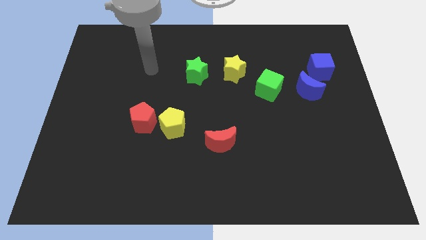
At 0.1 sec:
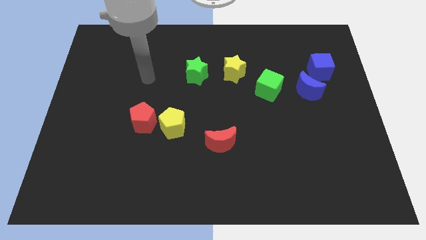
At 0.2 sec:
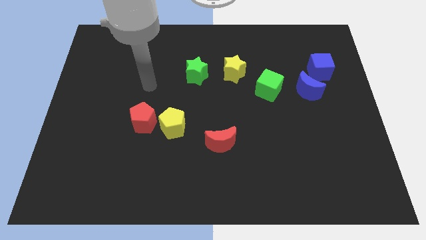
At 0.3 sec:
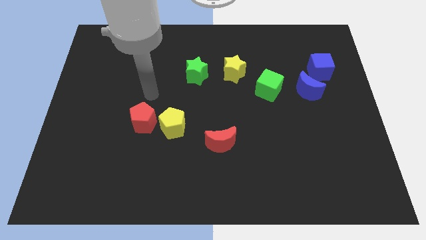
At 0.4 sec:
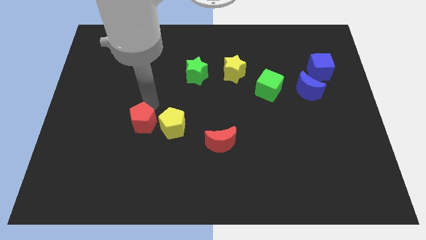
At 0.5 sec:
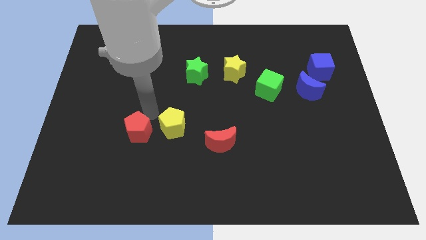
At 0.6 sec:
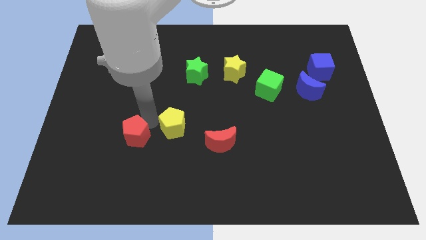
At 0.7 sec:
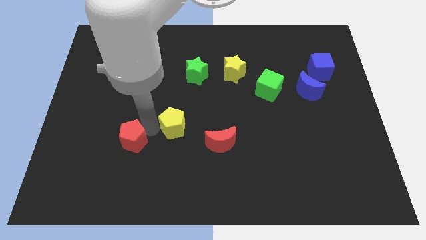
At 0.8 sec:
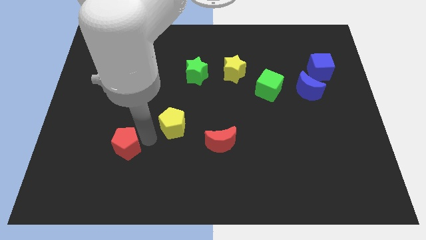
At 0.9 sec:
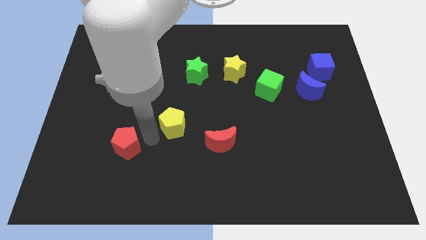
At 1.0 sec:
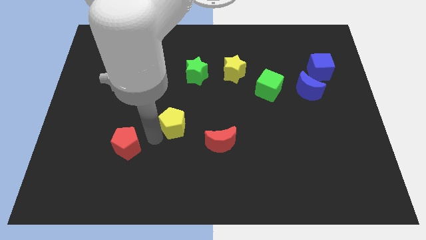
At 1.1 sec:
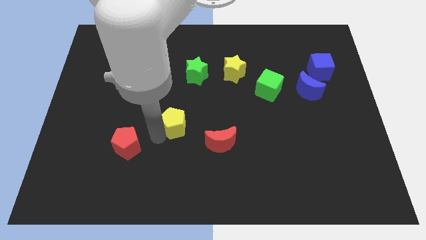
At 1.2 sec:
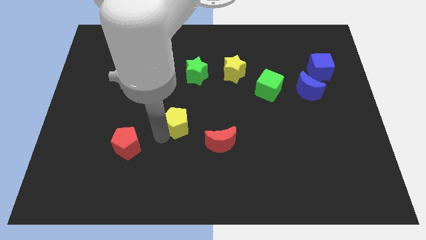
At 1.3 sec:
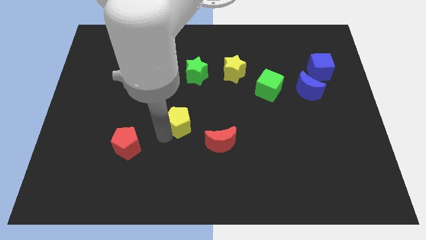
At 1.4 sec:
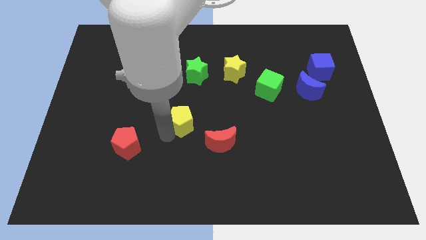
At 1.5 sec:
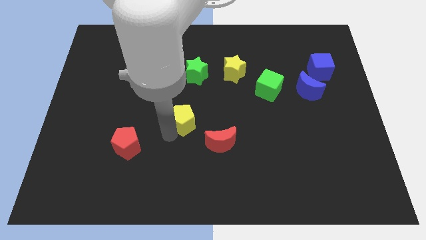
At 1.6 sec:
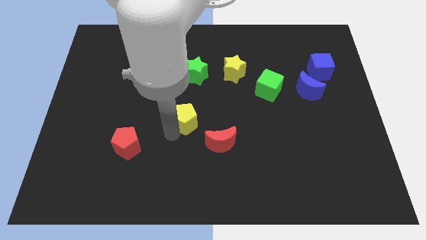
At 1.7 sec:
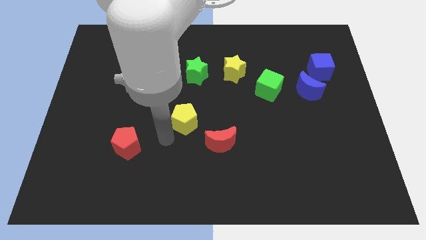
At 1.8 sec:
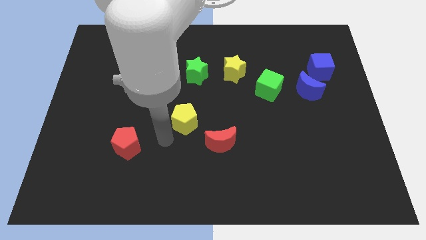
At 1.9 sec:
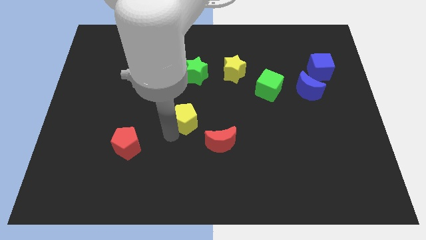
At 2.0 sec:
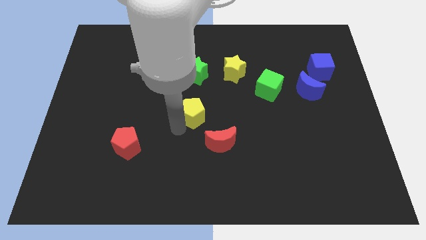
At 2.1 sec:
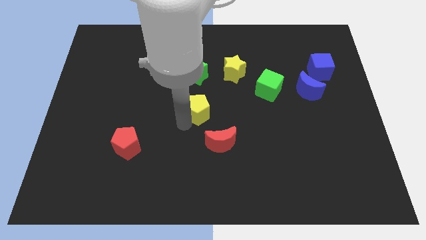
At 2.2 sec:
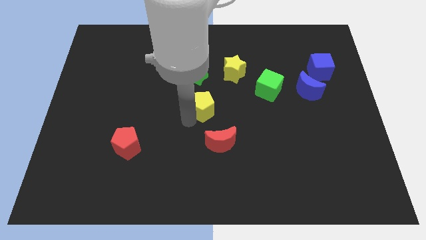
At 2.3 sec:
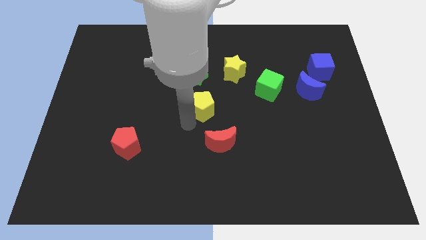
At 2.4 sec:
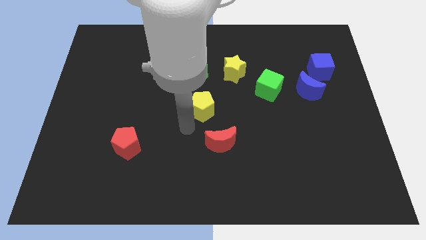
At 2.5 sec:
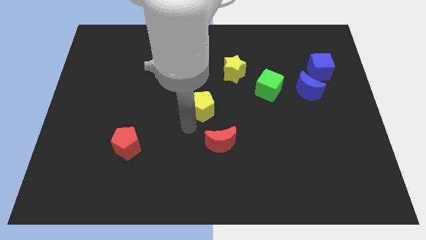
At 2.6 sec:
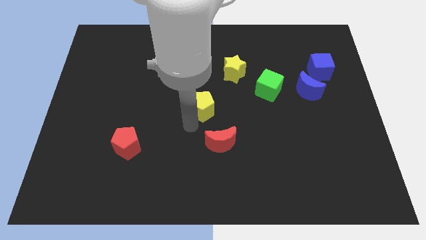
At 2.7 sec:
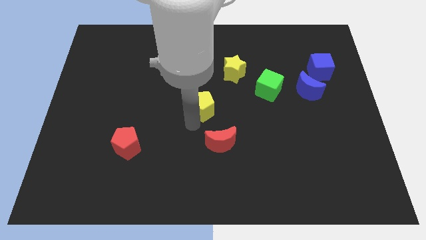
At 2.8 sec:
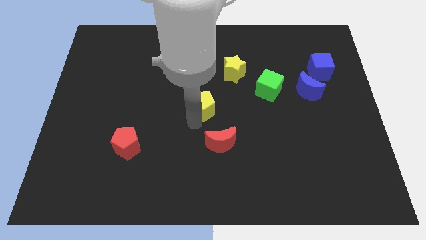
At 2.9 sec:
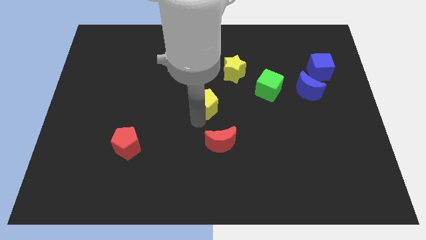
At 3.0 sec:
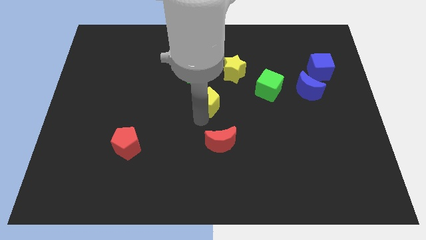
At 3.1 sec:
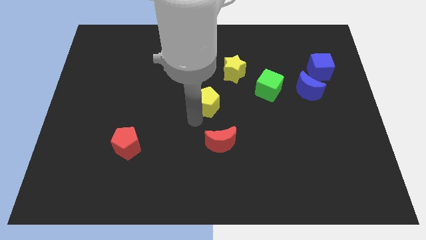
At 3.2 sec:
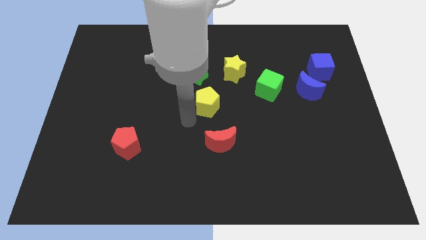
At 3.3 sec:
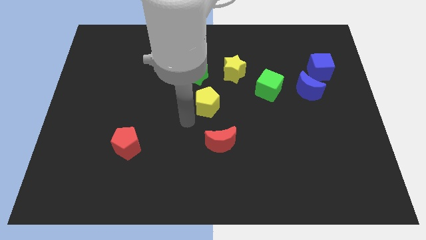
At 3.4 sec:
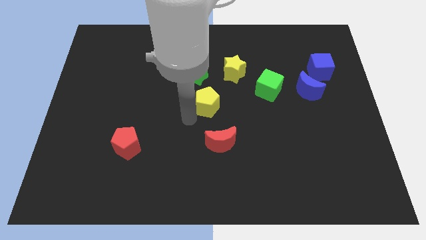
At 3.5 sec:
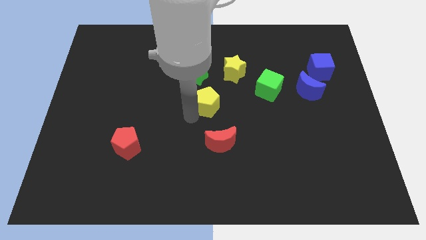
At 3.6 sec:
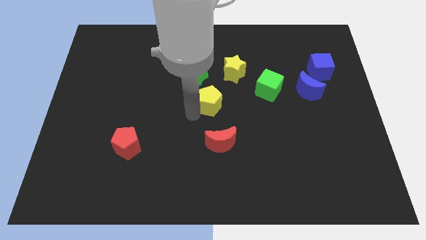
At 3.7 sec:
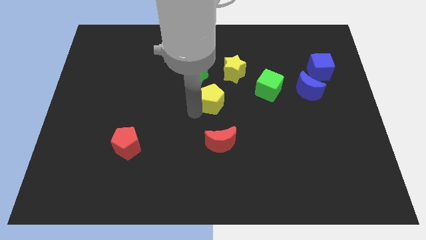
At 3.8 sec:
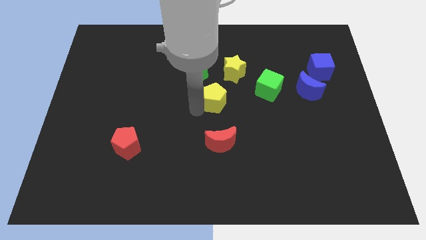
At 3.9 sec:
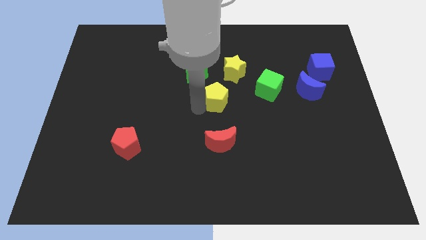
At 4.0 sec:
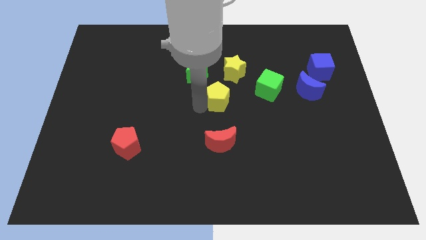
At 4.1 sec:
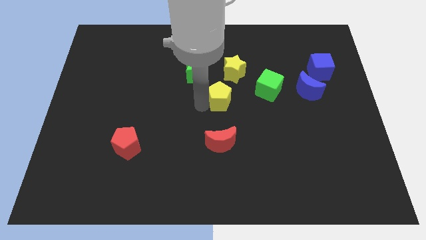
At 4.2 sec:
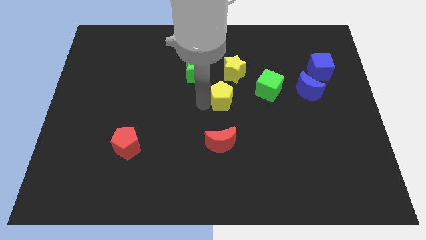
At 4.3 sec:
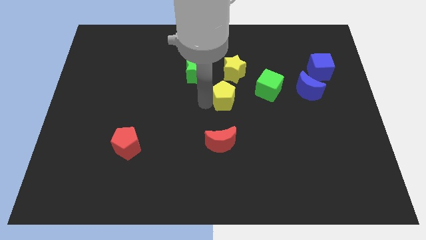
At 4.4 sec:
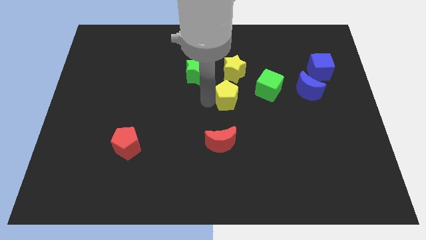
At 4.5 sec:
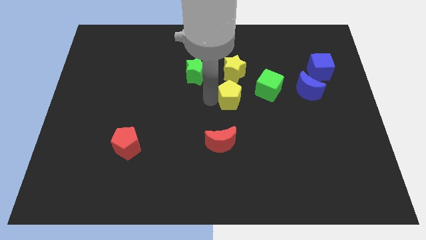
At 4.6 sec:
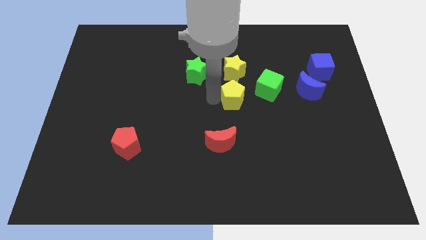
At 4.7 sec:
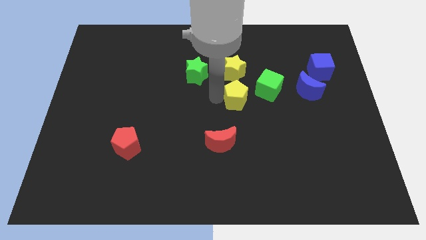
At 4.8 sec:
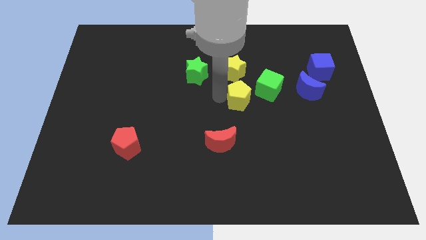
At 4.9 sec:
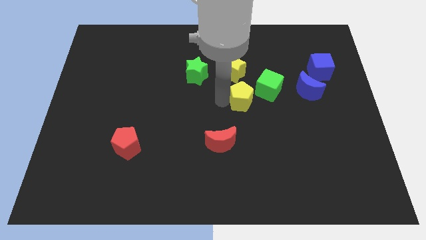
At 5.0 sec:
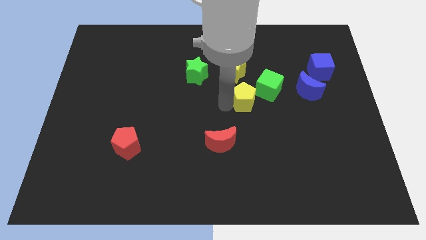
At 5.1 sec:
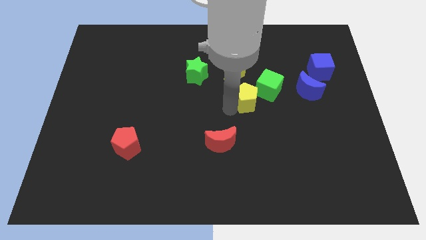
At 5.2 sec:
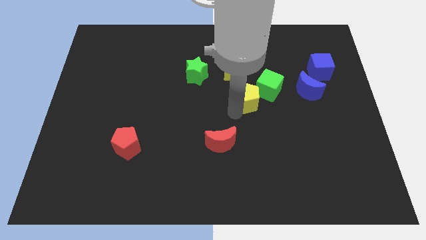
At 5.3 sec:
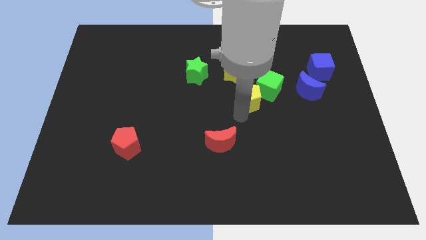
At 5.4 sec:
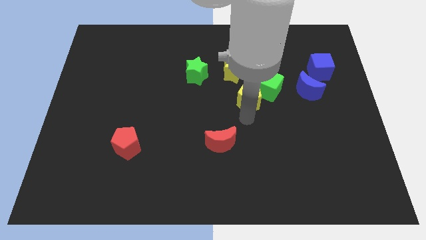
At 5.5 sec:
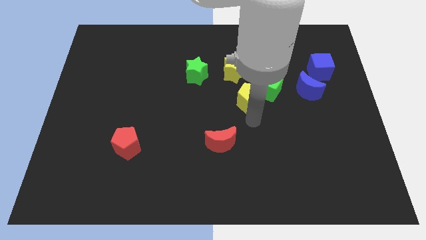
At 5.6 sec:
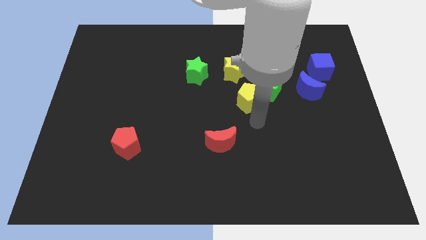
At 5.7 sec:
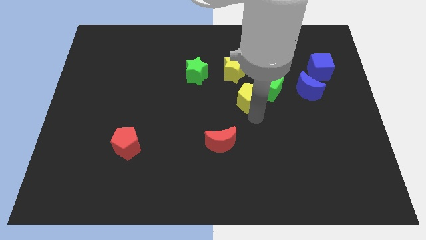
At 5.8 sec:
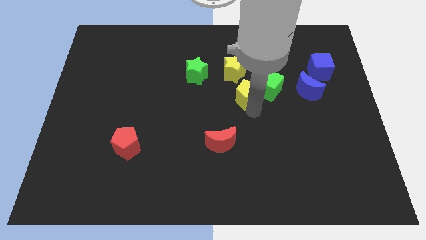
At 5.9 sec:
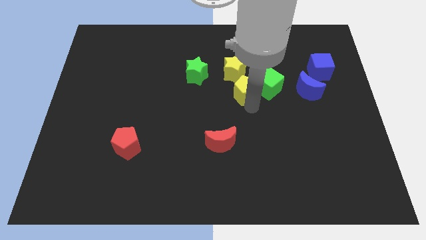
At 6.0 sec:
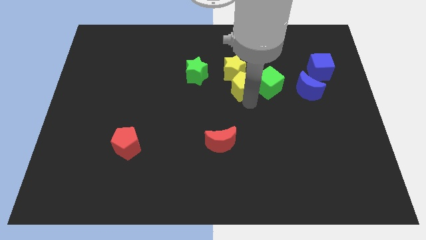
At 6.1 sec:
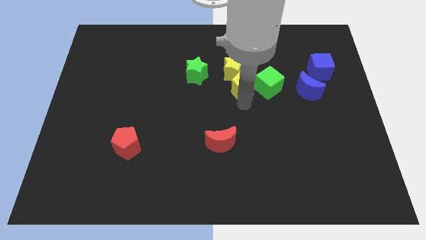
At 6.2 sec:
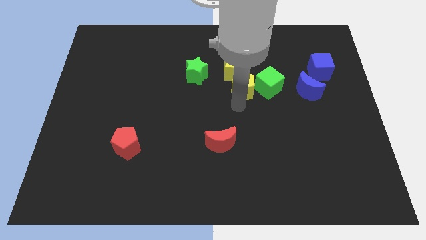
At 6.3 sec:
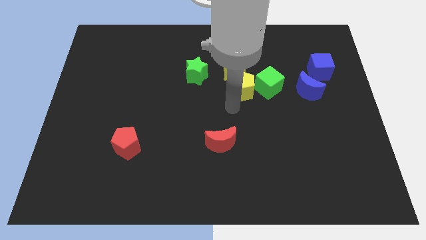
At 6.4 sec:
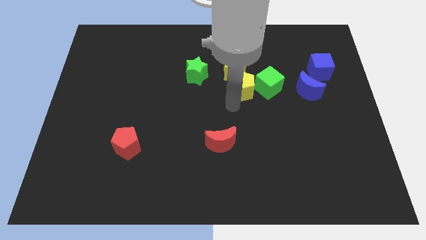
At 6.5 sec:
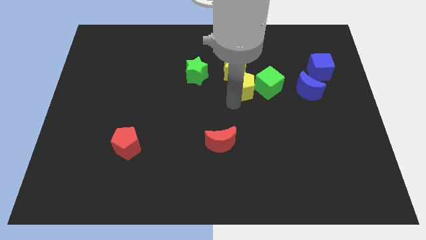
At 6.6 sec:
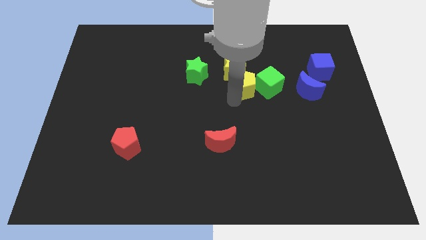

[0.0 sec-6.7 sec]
push the yellow pentagon up and then right

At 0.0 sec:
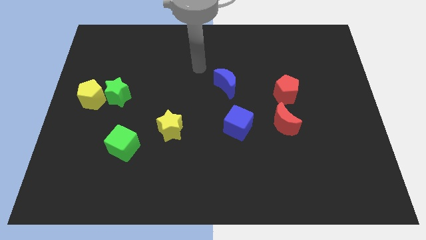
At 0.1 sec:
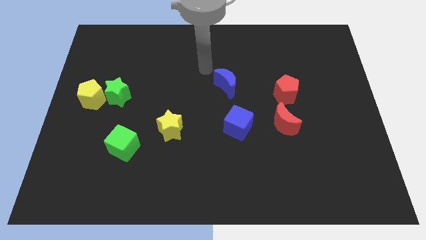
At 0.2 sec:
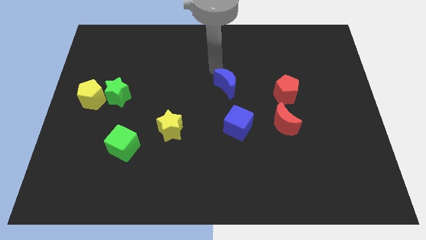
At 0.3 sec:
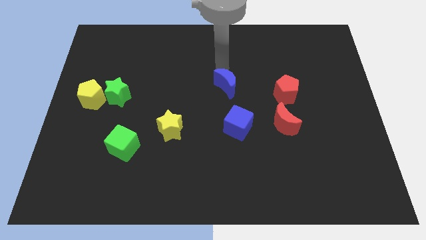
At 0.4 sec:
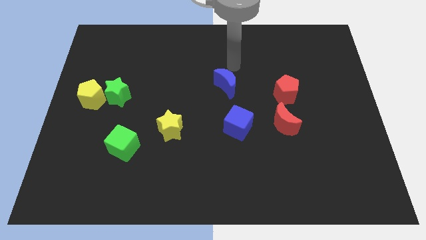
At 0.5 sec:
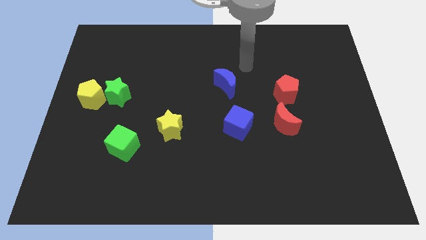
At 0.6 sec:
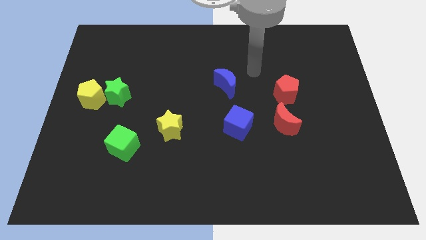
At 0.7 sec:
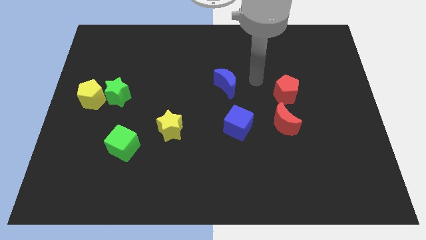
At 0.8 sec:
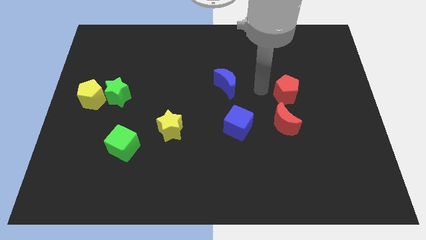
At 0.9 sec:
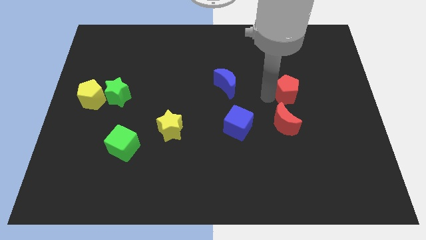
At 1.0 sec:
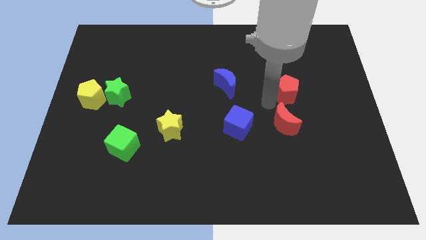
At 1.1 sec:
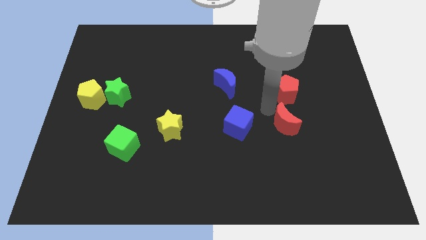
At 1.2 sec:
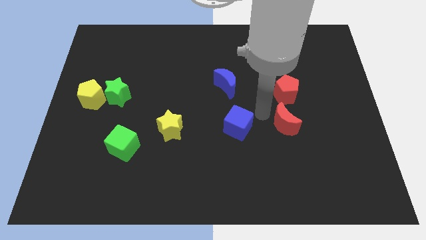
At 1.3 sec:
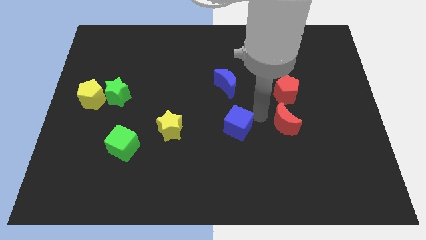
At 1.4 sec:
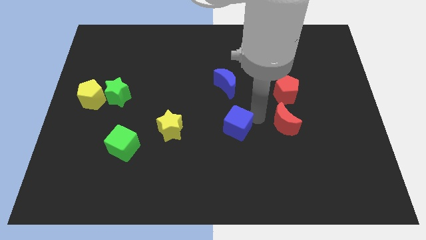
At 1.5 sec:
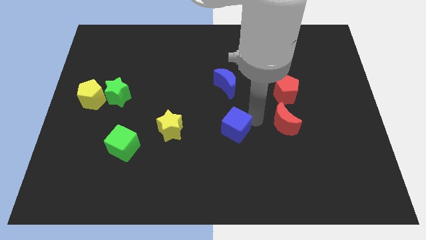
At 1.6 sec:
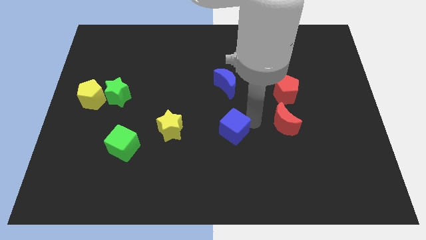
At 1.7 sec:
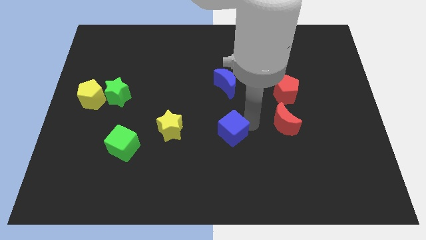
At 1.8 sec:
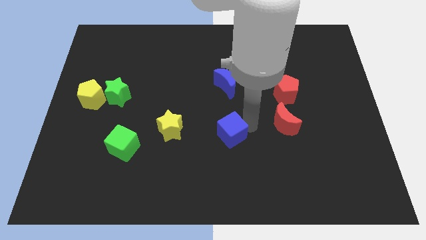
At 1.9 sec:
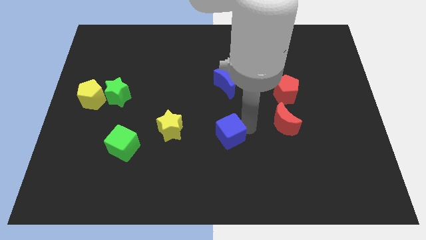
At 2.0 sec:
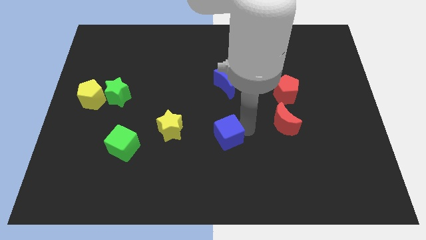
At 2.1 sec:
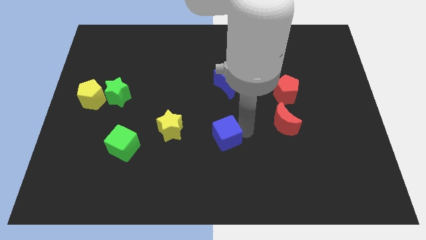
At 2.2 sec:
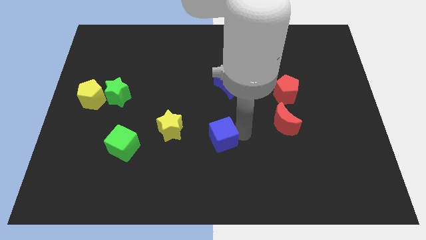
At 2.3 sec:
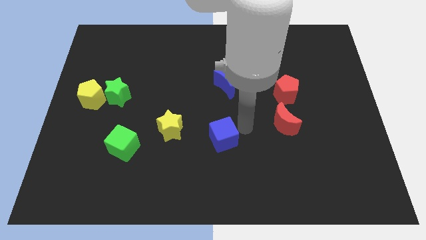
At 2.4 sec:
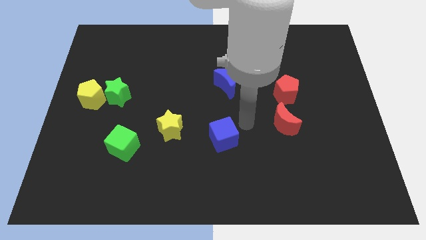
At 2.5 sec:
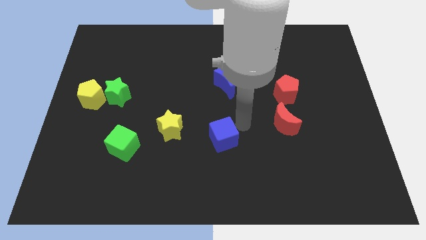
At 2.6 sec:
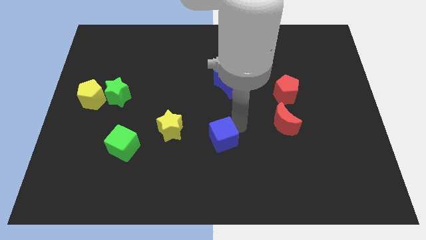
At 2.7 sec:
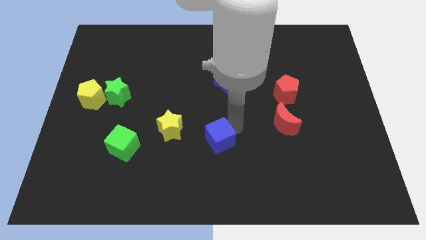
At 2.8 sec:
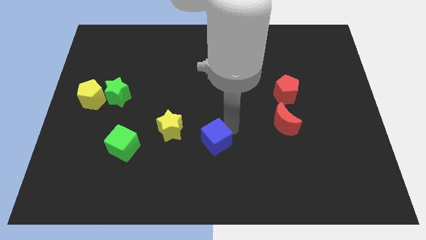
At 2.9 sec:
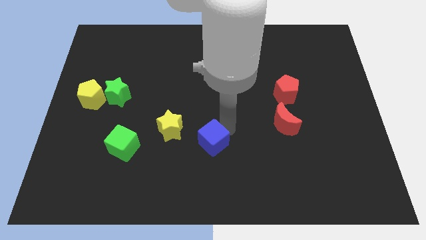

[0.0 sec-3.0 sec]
move the blue cube slightly downwards and left diagonally
